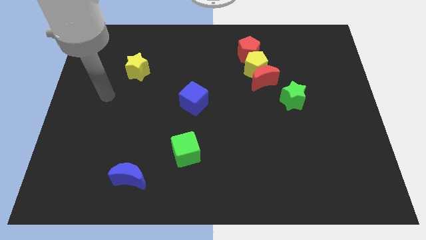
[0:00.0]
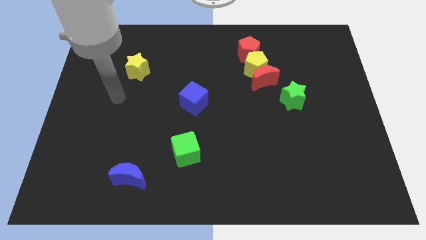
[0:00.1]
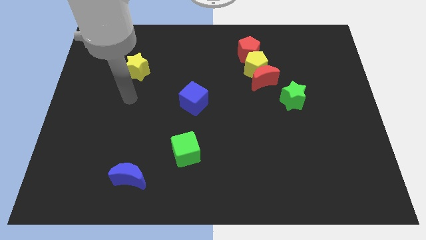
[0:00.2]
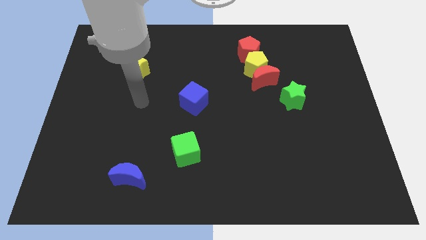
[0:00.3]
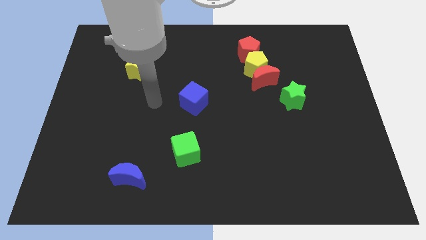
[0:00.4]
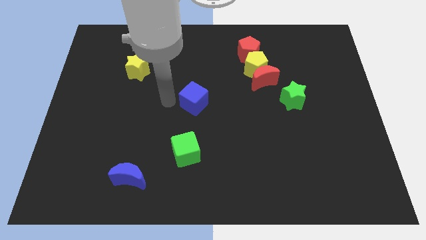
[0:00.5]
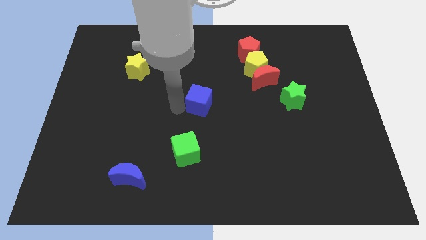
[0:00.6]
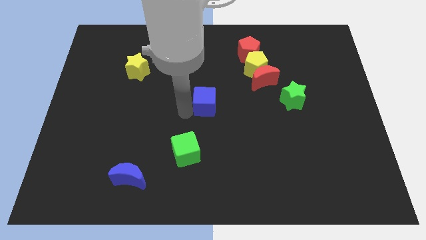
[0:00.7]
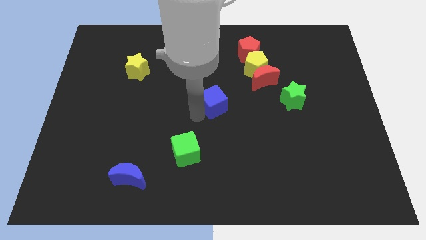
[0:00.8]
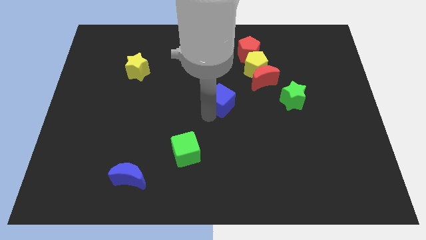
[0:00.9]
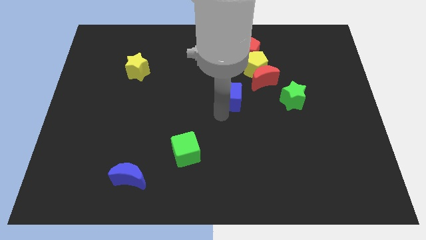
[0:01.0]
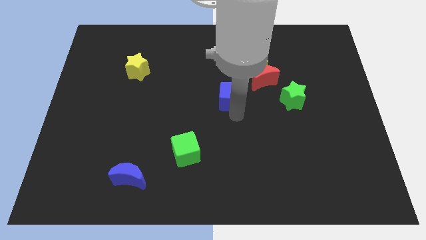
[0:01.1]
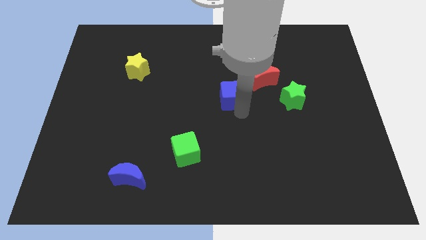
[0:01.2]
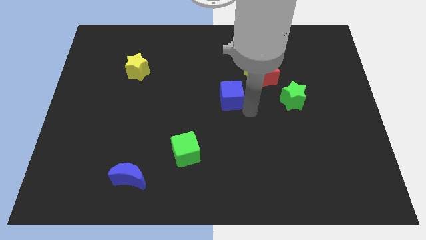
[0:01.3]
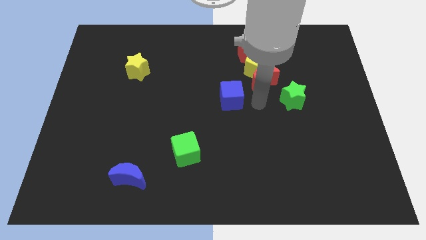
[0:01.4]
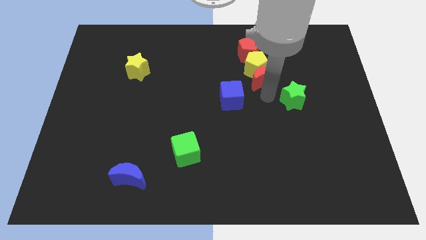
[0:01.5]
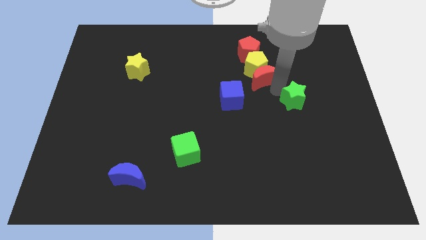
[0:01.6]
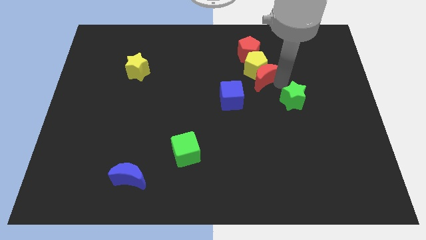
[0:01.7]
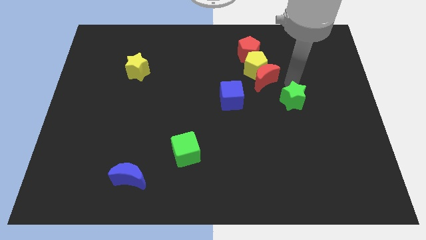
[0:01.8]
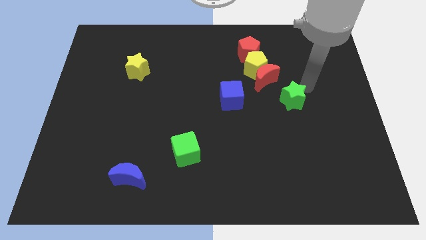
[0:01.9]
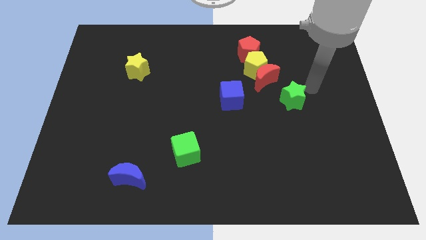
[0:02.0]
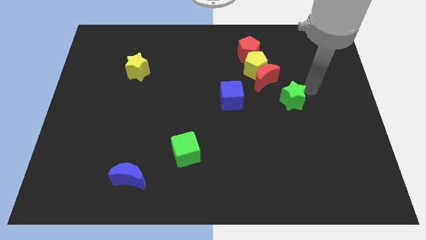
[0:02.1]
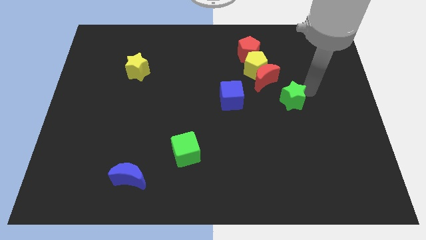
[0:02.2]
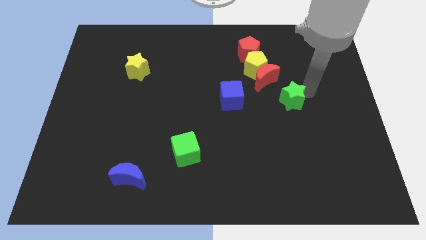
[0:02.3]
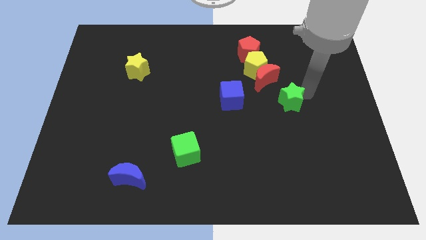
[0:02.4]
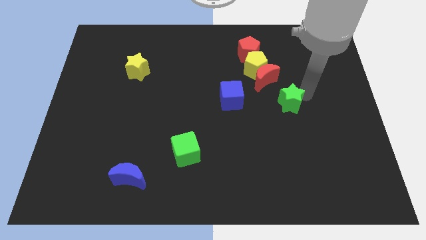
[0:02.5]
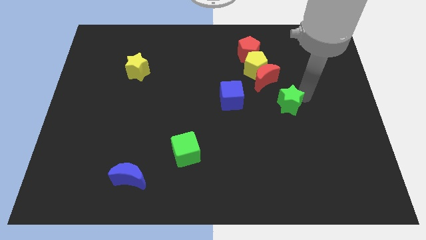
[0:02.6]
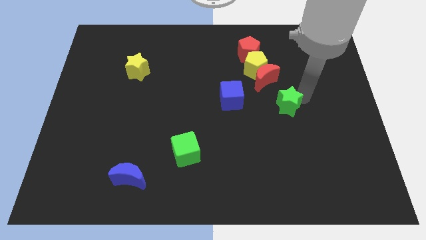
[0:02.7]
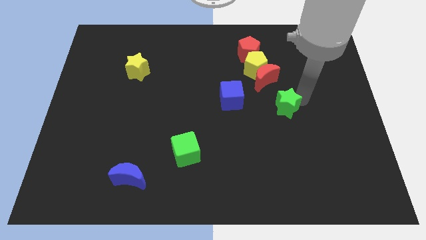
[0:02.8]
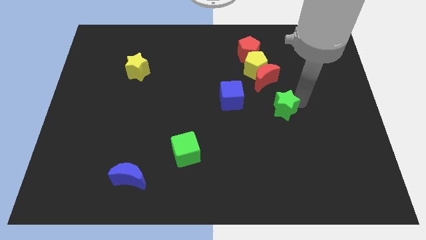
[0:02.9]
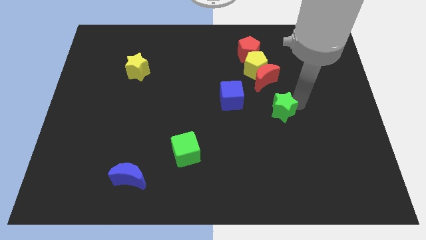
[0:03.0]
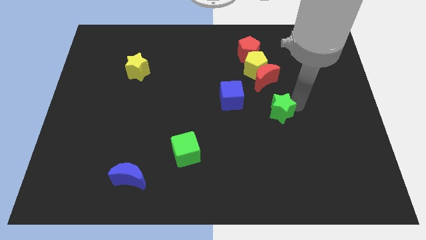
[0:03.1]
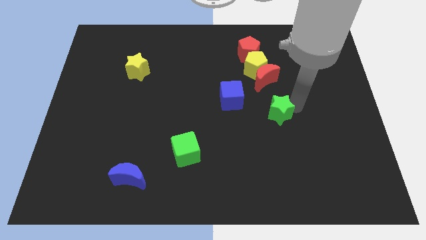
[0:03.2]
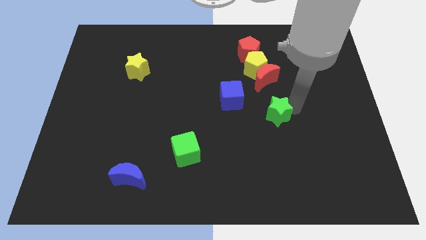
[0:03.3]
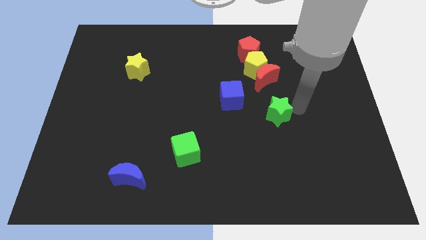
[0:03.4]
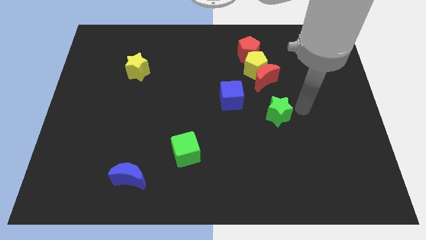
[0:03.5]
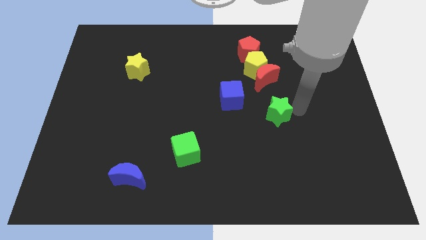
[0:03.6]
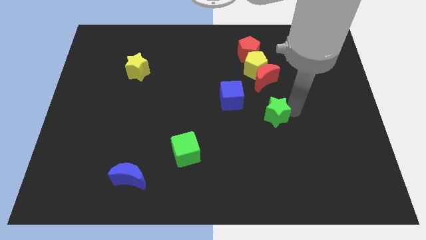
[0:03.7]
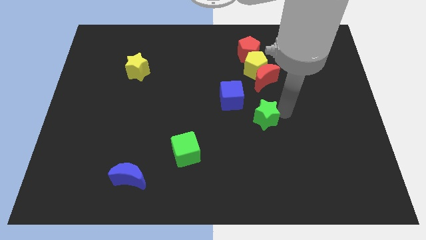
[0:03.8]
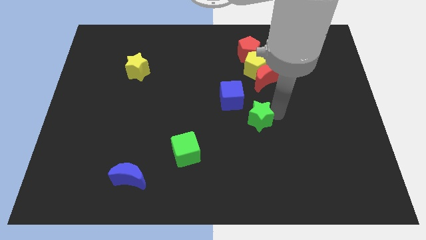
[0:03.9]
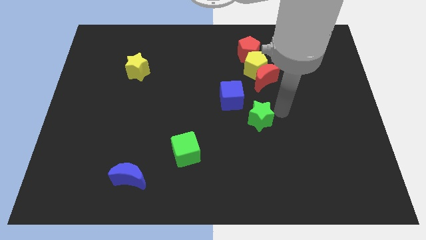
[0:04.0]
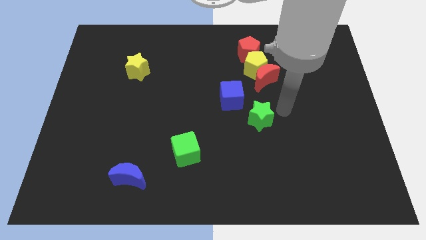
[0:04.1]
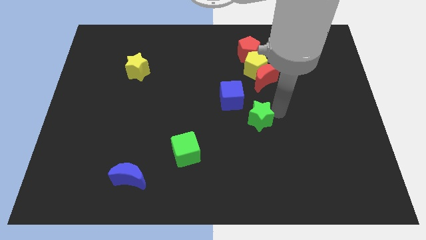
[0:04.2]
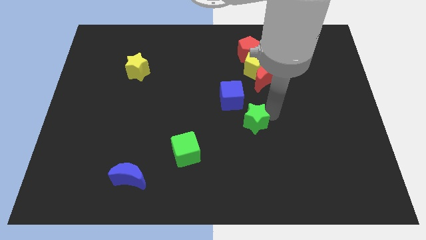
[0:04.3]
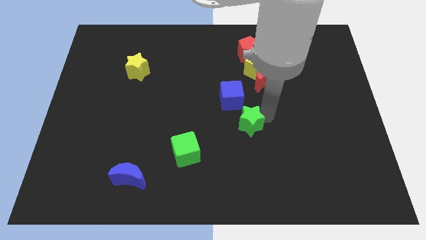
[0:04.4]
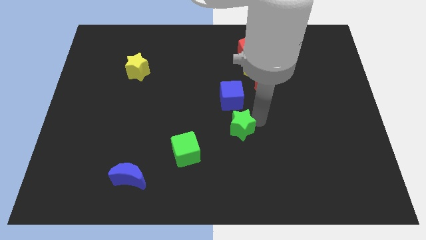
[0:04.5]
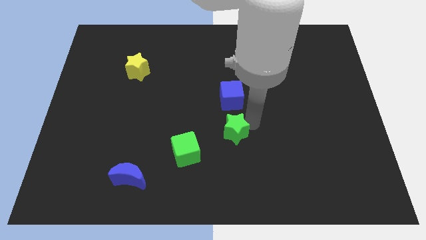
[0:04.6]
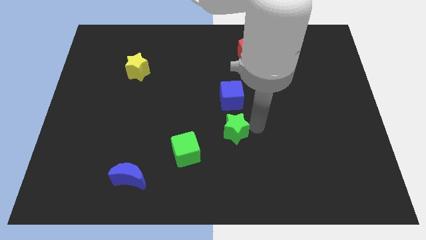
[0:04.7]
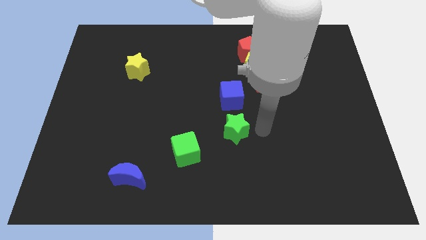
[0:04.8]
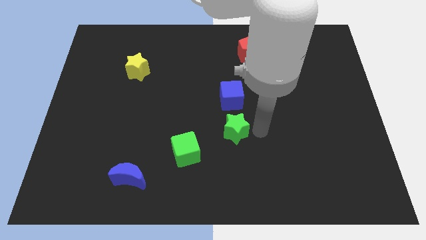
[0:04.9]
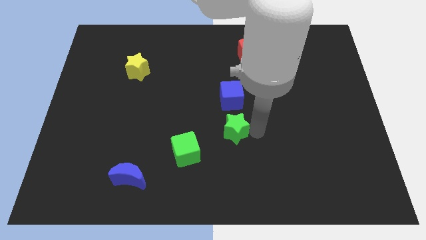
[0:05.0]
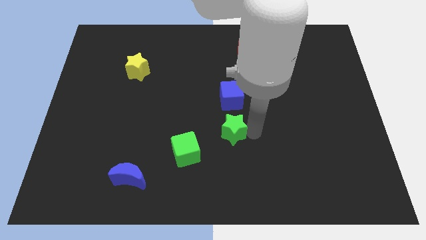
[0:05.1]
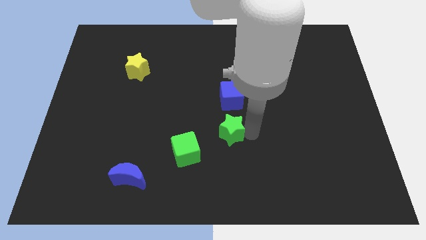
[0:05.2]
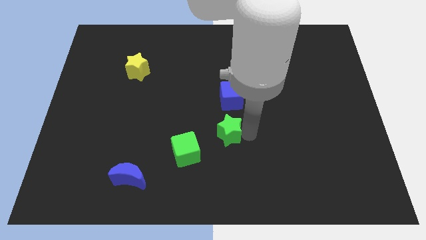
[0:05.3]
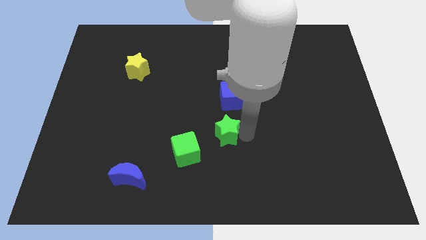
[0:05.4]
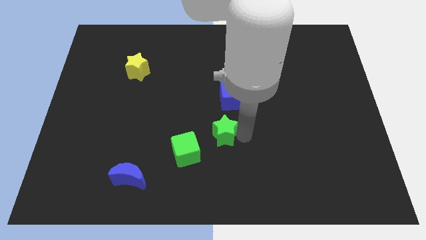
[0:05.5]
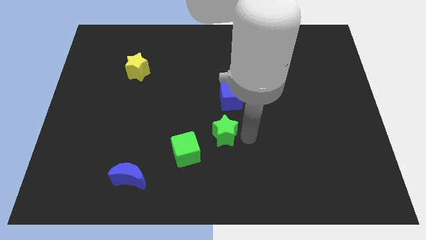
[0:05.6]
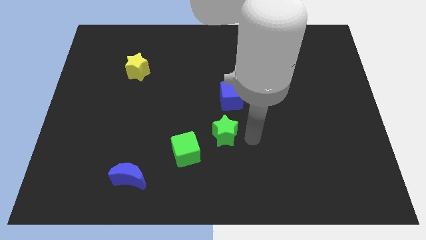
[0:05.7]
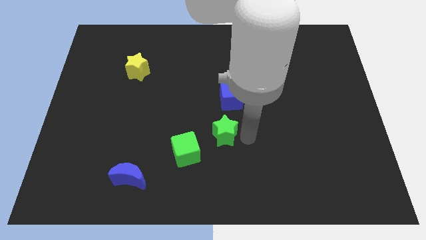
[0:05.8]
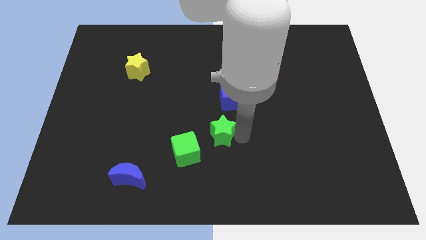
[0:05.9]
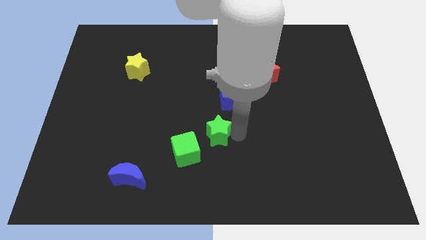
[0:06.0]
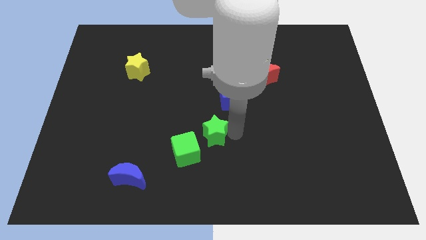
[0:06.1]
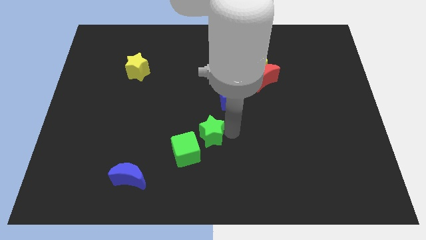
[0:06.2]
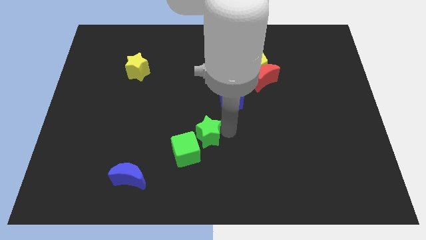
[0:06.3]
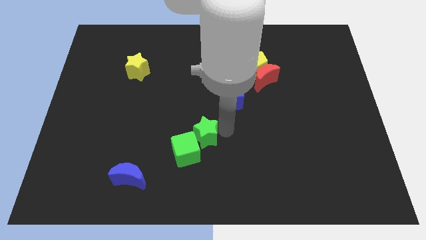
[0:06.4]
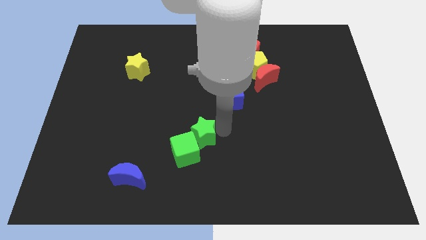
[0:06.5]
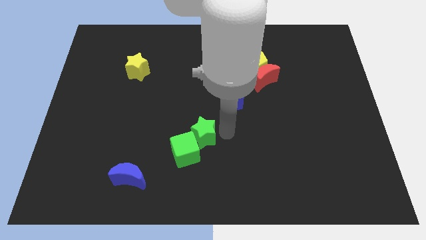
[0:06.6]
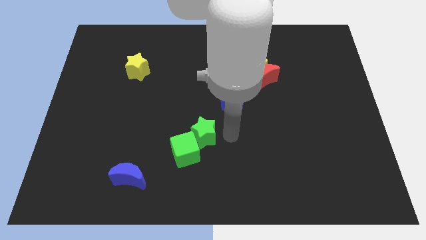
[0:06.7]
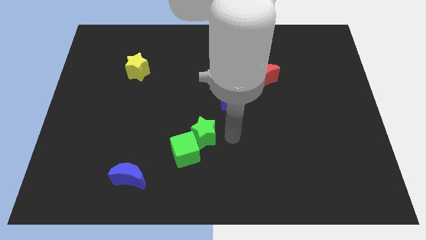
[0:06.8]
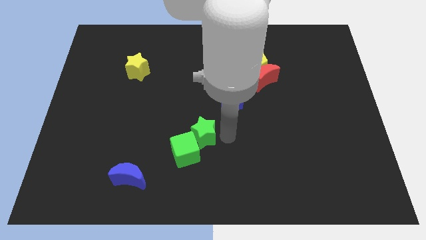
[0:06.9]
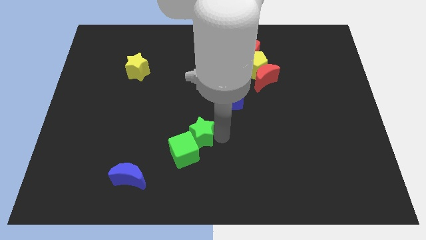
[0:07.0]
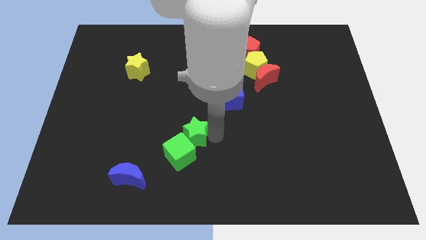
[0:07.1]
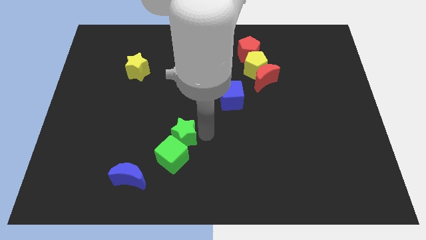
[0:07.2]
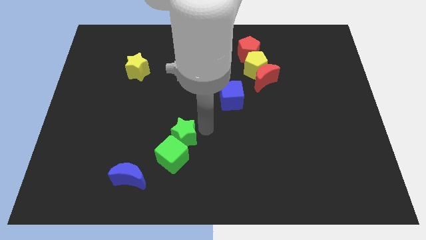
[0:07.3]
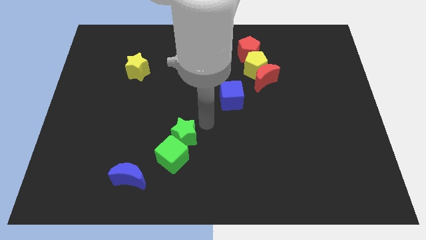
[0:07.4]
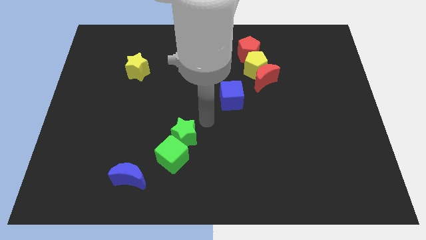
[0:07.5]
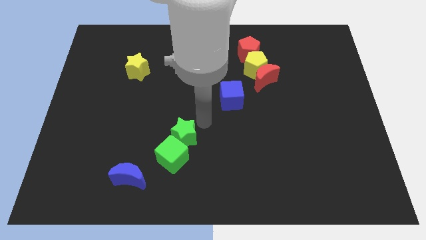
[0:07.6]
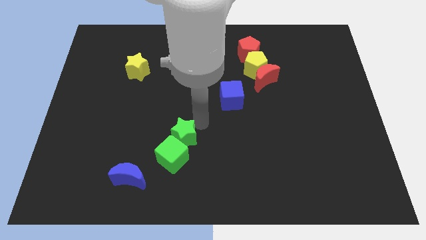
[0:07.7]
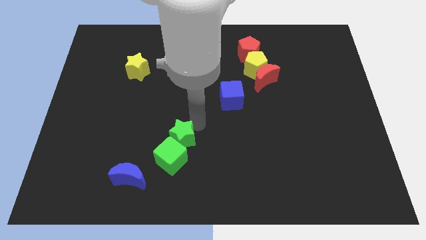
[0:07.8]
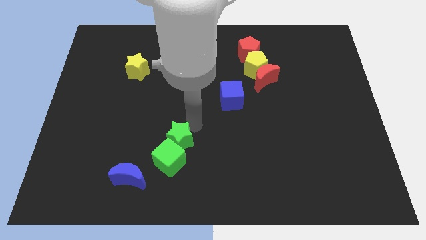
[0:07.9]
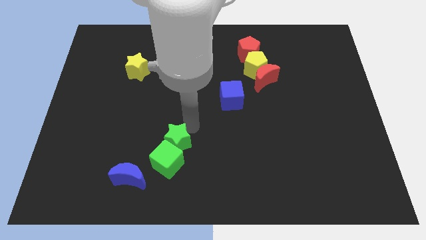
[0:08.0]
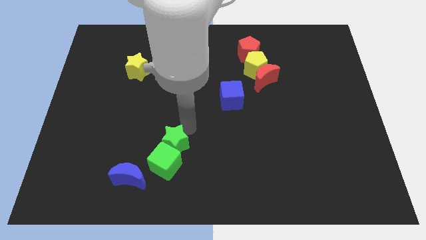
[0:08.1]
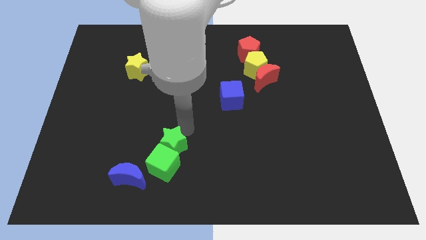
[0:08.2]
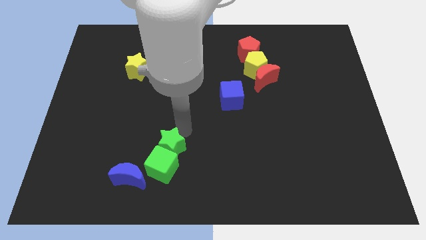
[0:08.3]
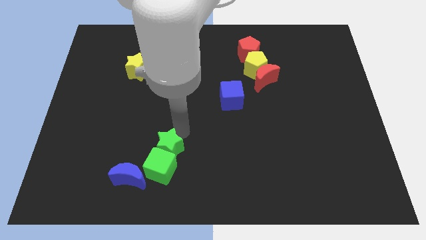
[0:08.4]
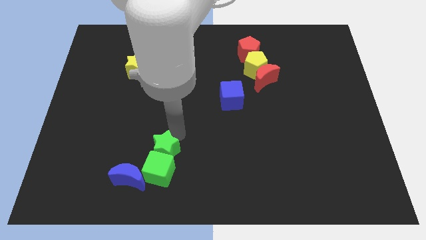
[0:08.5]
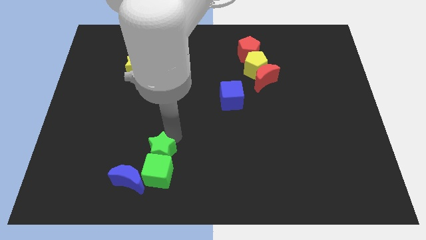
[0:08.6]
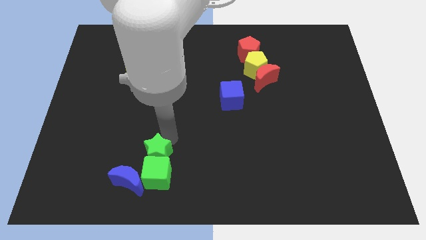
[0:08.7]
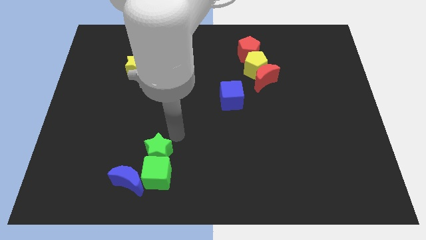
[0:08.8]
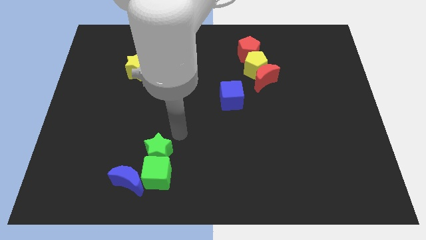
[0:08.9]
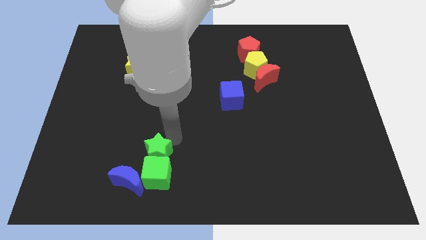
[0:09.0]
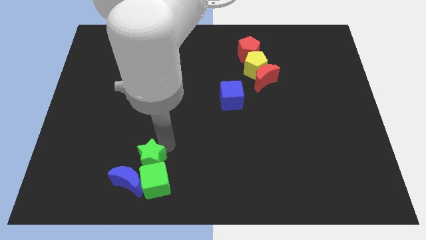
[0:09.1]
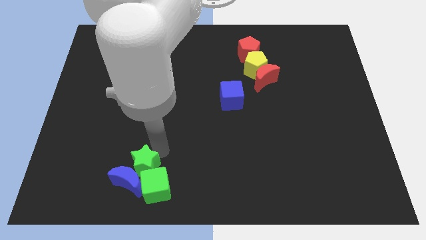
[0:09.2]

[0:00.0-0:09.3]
move the green star close to the blue moon
